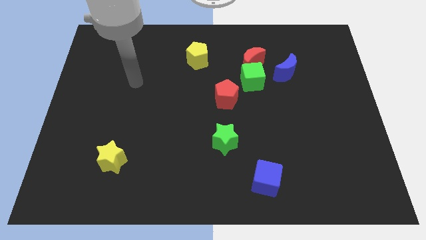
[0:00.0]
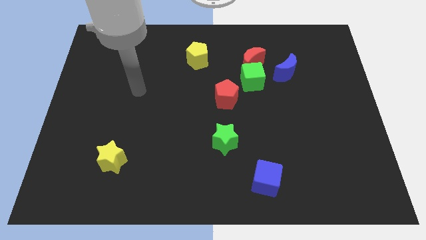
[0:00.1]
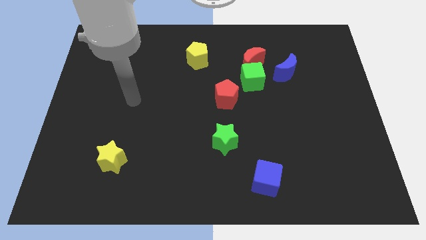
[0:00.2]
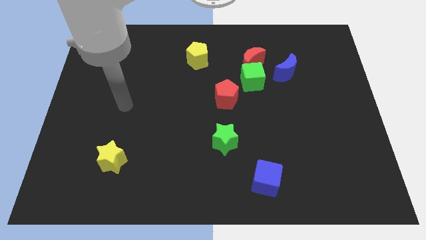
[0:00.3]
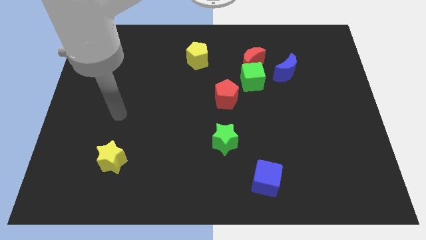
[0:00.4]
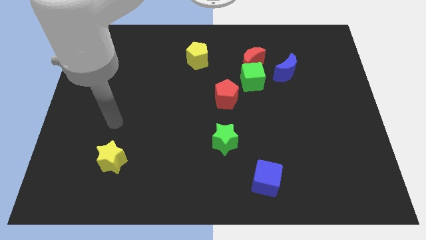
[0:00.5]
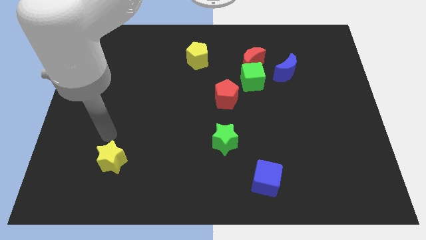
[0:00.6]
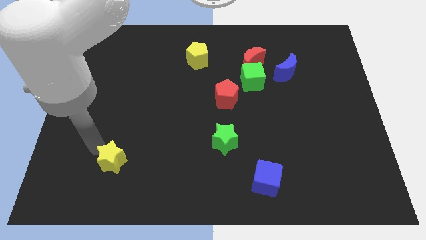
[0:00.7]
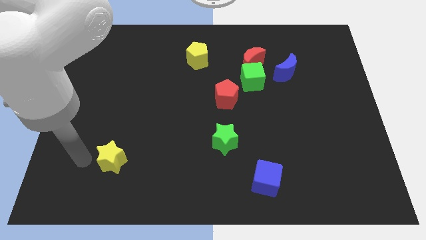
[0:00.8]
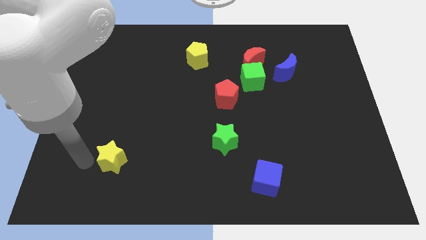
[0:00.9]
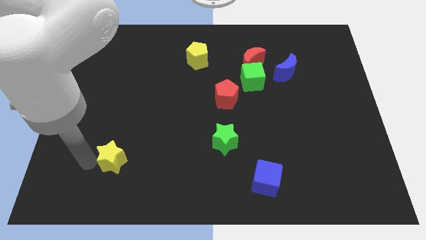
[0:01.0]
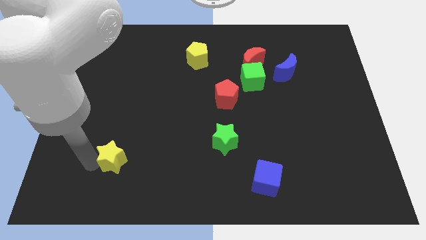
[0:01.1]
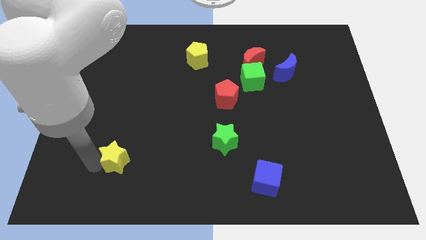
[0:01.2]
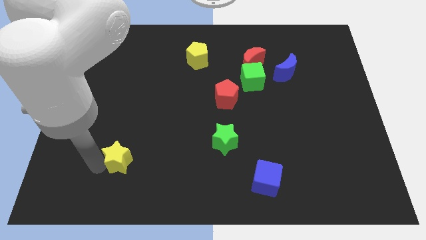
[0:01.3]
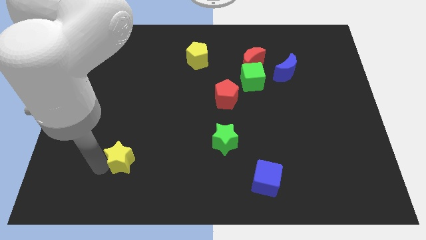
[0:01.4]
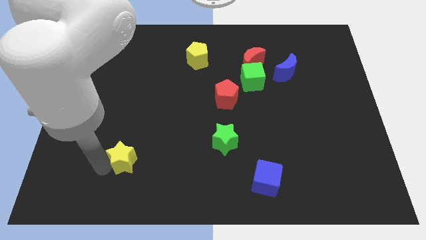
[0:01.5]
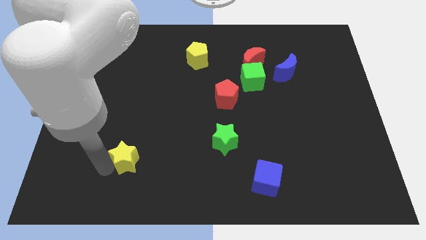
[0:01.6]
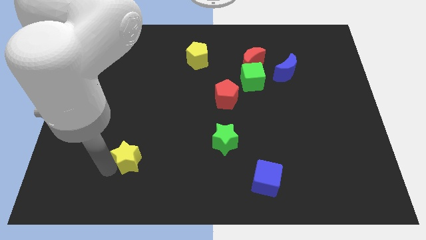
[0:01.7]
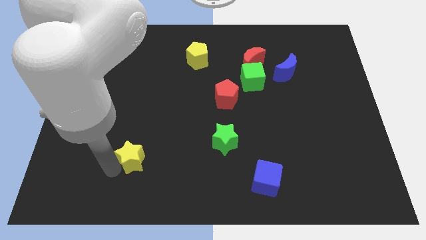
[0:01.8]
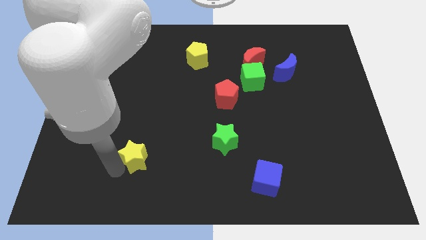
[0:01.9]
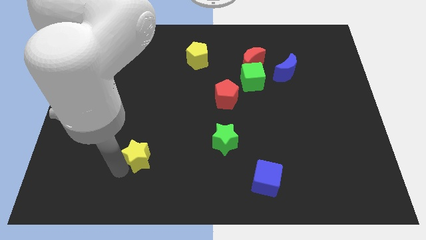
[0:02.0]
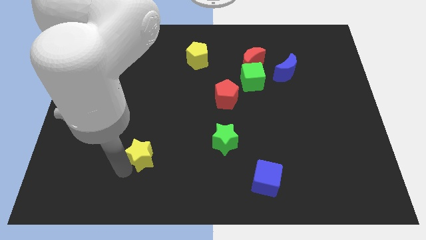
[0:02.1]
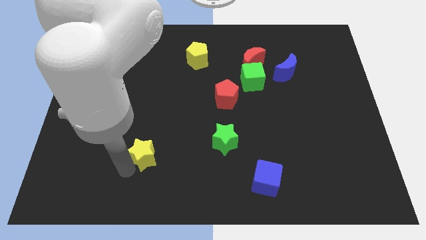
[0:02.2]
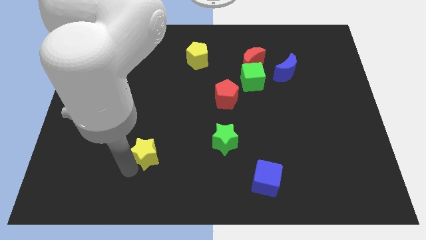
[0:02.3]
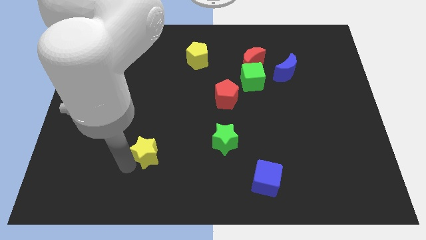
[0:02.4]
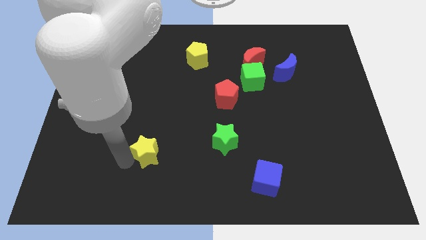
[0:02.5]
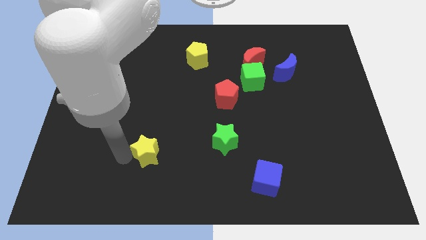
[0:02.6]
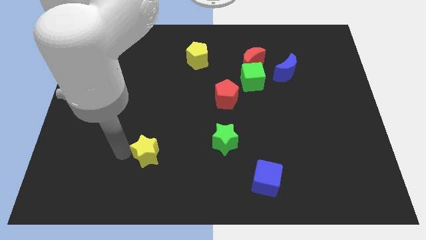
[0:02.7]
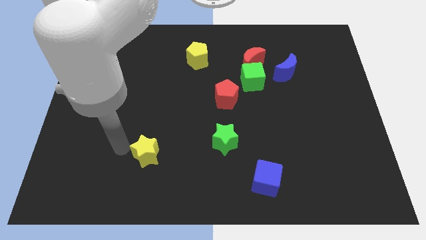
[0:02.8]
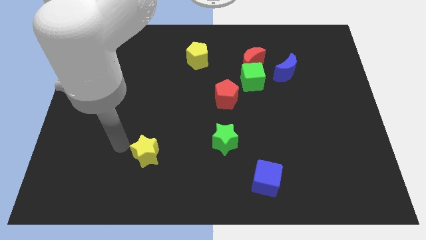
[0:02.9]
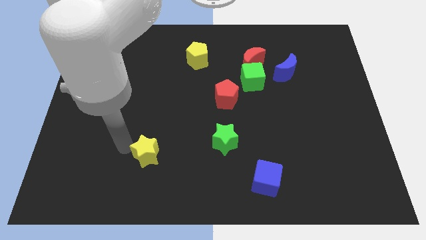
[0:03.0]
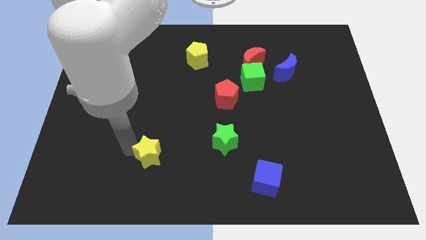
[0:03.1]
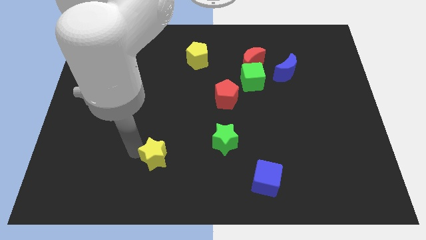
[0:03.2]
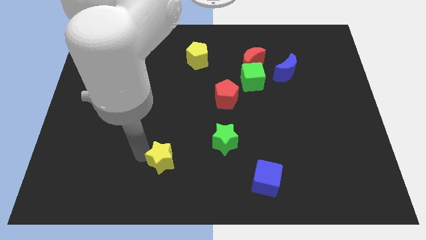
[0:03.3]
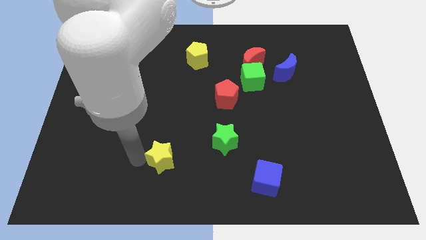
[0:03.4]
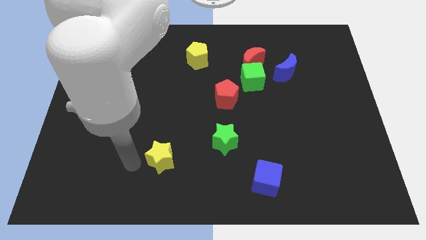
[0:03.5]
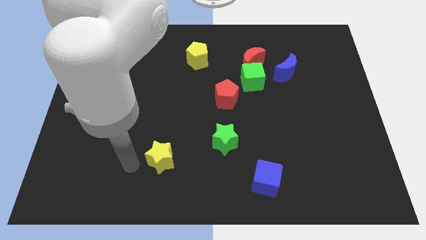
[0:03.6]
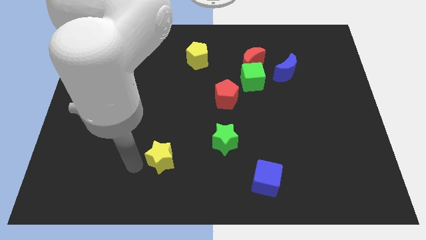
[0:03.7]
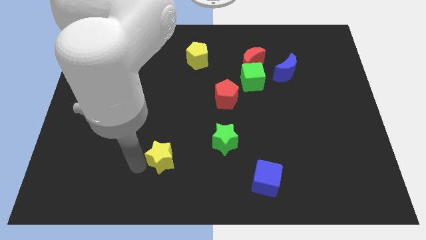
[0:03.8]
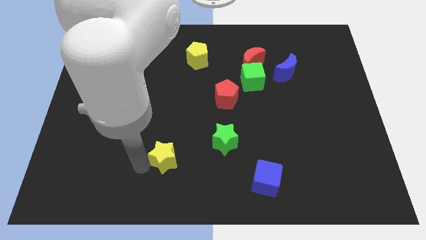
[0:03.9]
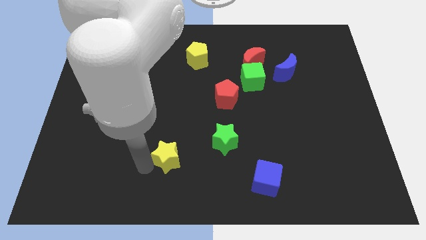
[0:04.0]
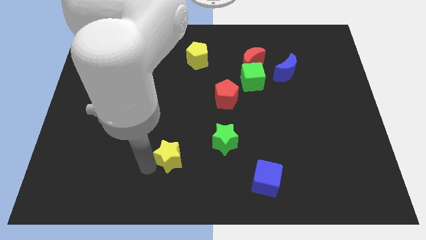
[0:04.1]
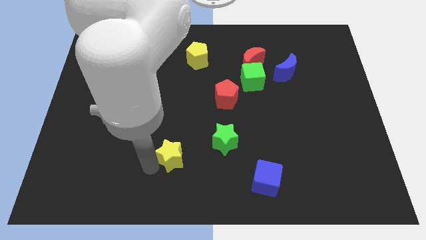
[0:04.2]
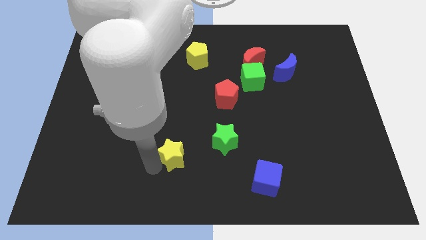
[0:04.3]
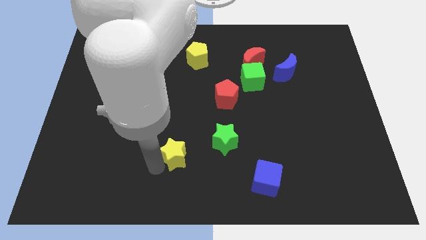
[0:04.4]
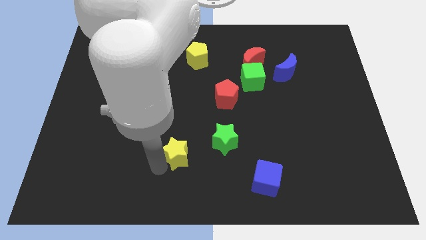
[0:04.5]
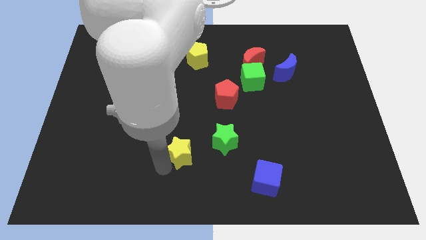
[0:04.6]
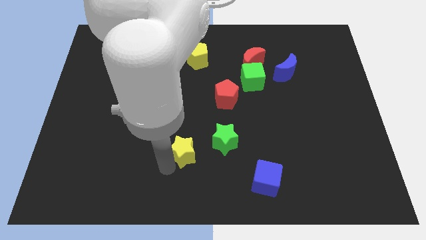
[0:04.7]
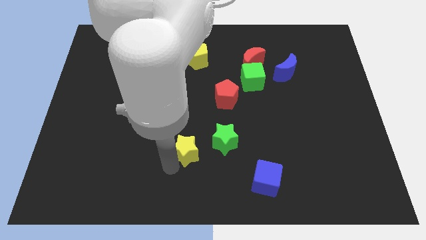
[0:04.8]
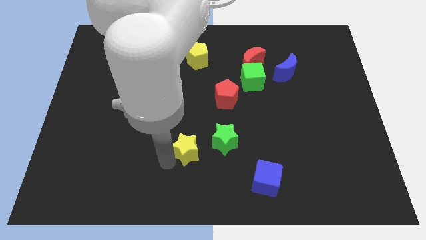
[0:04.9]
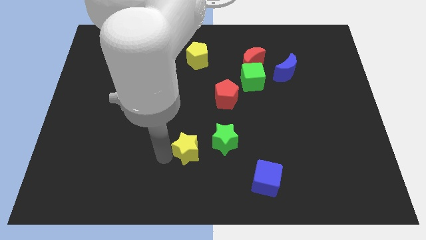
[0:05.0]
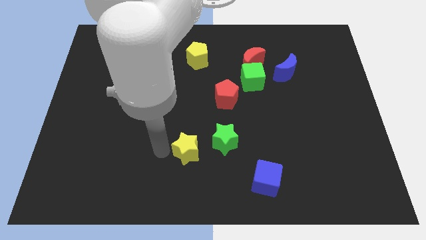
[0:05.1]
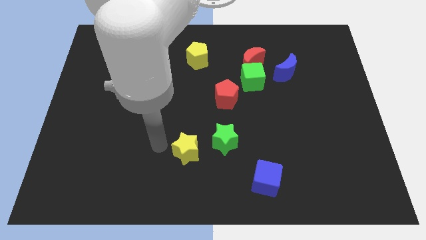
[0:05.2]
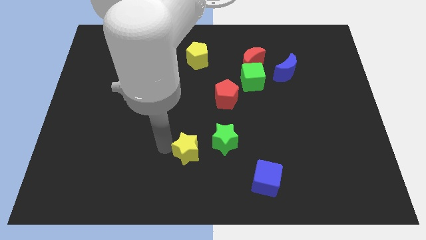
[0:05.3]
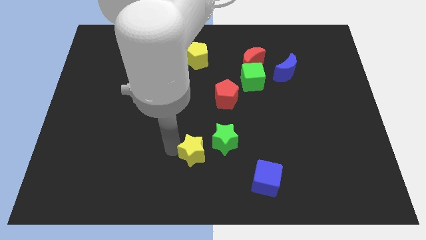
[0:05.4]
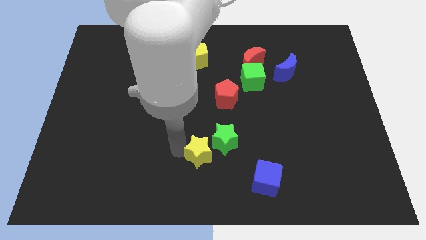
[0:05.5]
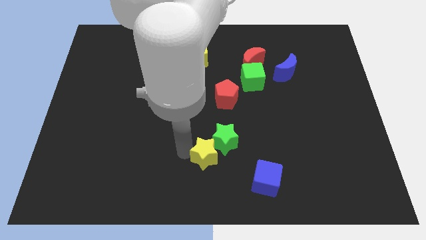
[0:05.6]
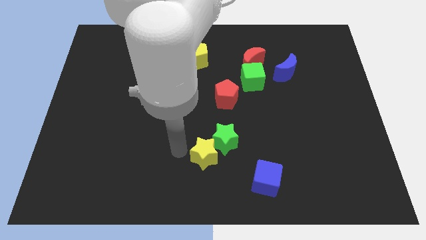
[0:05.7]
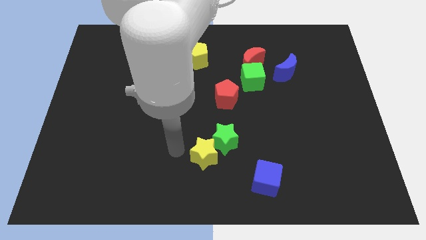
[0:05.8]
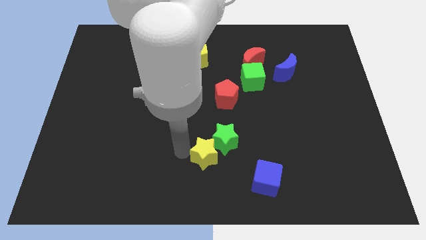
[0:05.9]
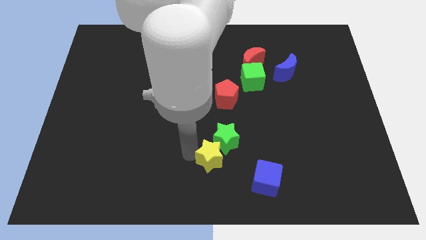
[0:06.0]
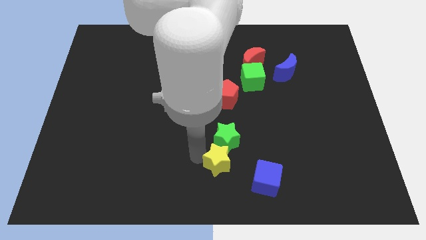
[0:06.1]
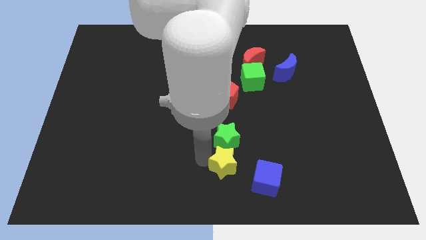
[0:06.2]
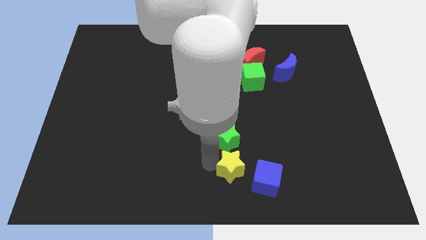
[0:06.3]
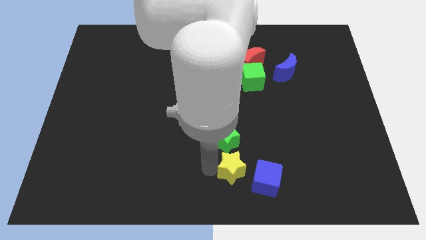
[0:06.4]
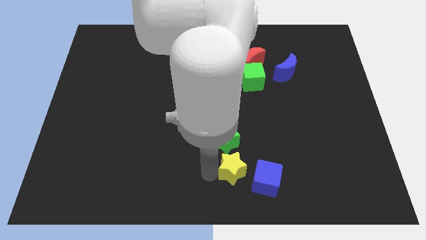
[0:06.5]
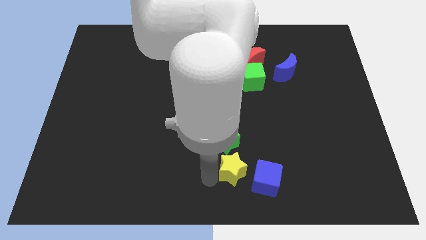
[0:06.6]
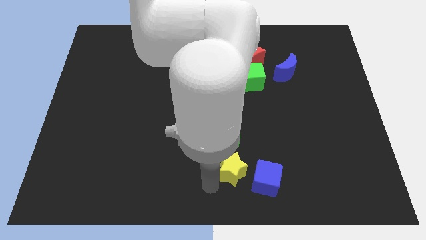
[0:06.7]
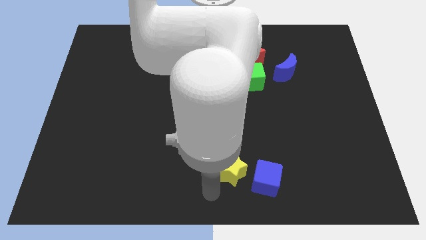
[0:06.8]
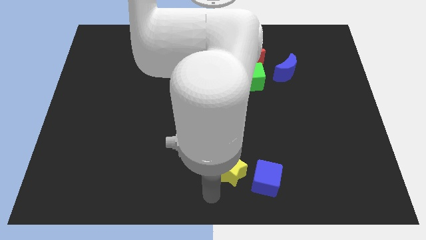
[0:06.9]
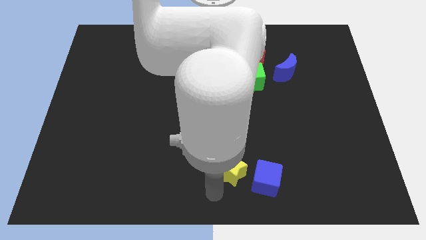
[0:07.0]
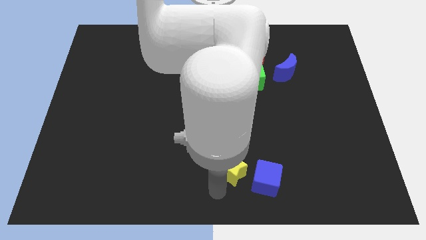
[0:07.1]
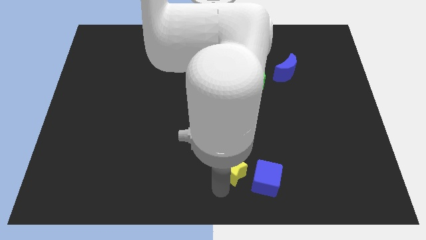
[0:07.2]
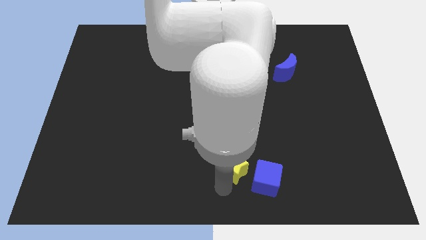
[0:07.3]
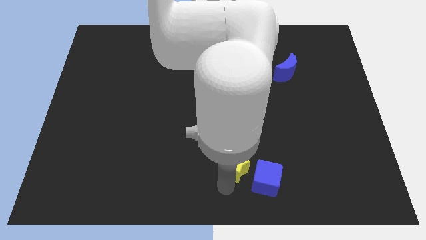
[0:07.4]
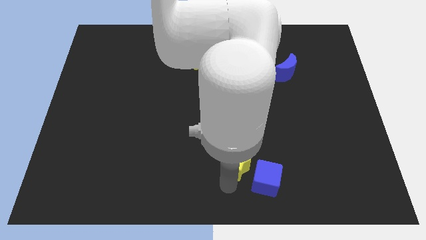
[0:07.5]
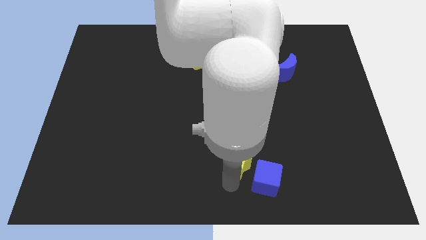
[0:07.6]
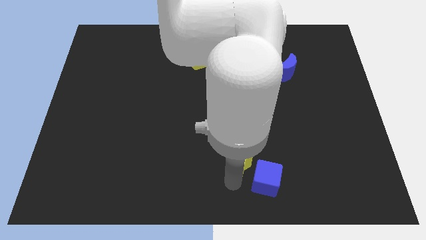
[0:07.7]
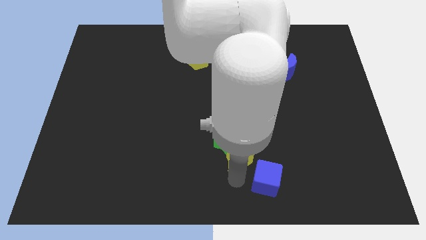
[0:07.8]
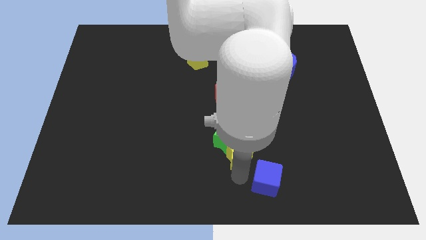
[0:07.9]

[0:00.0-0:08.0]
slide the yellow star just right of the green star
